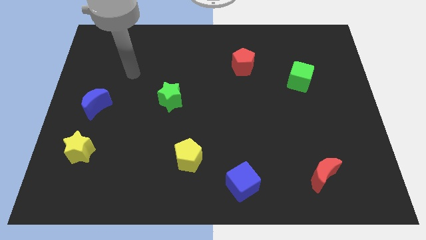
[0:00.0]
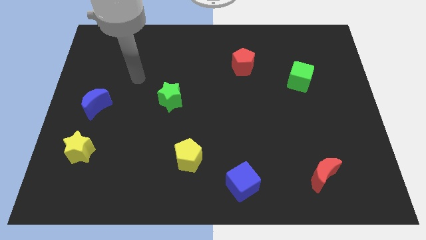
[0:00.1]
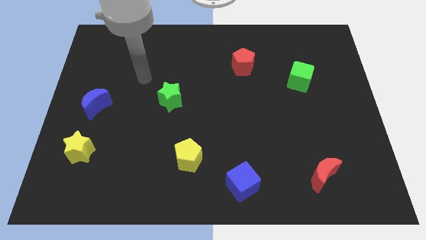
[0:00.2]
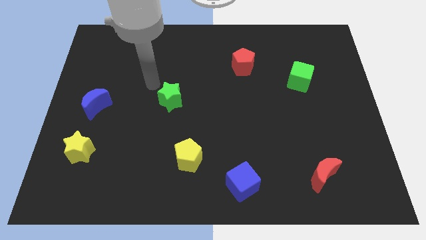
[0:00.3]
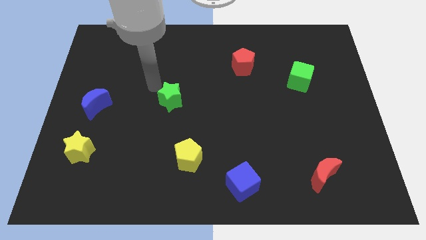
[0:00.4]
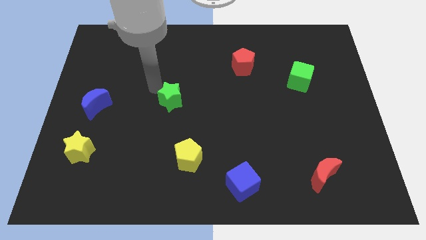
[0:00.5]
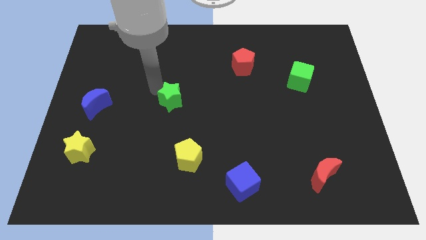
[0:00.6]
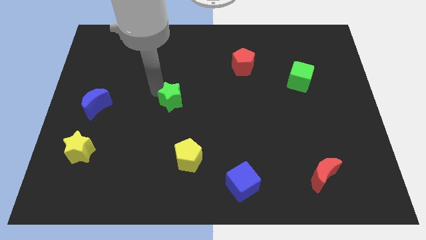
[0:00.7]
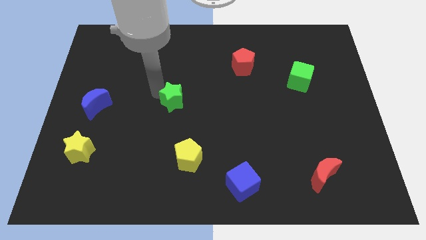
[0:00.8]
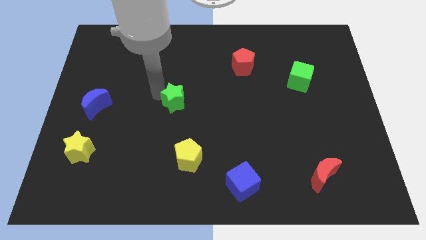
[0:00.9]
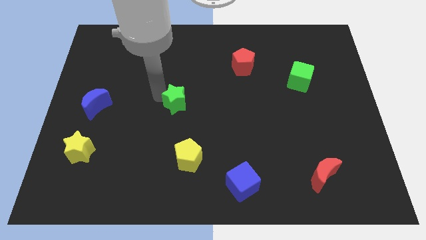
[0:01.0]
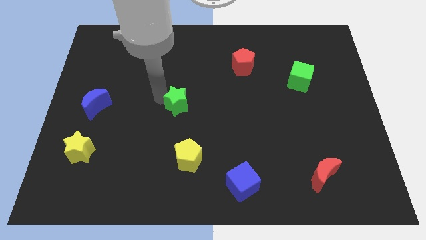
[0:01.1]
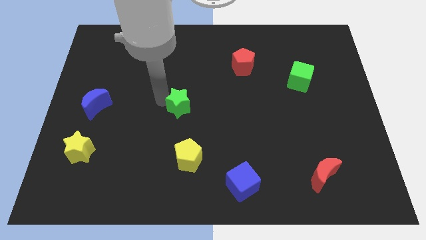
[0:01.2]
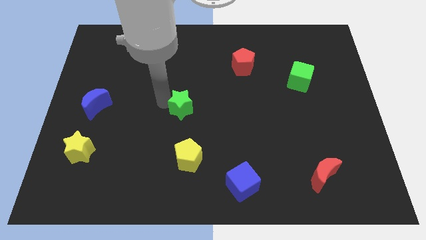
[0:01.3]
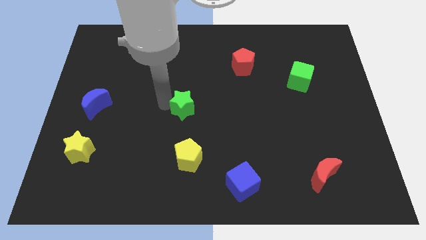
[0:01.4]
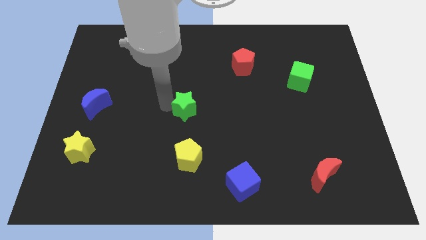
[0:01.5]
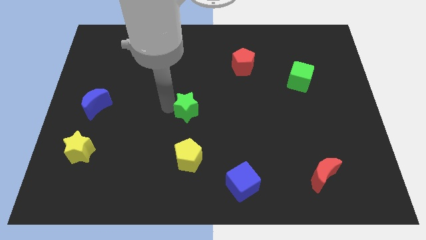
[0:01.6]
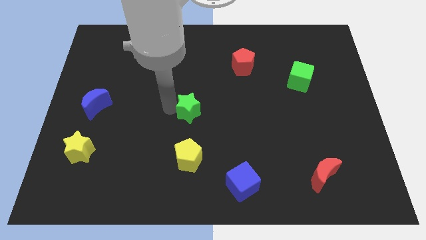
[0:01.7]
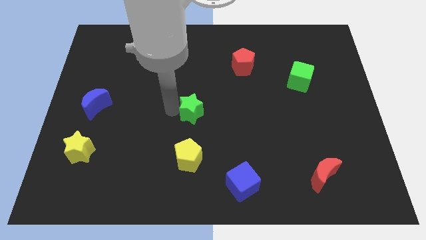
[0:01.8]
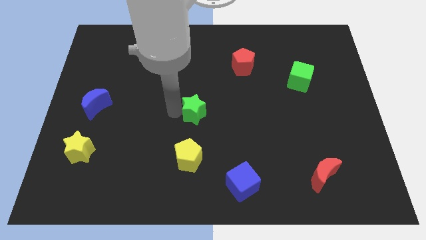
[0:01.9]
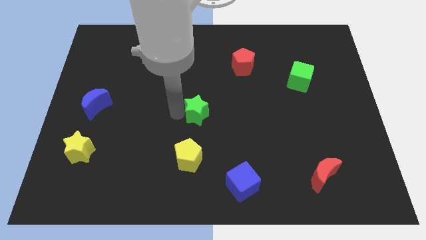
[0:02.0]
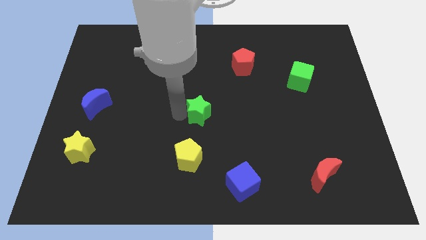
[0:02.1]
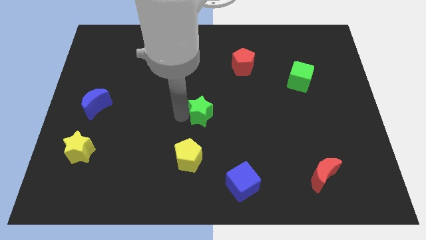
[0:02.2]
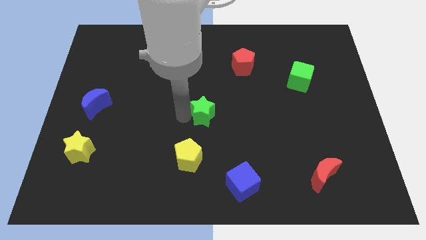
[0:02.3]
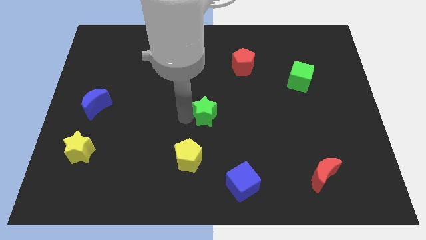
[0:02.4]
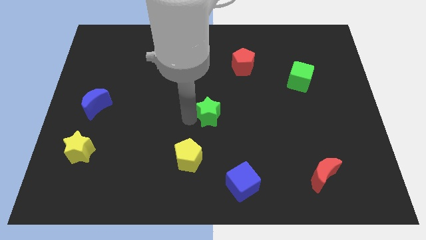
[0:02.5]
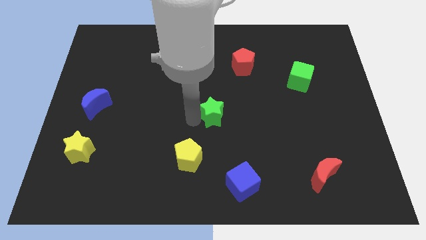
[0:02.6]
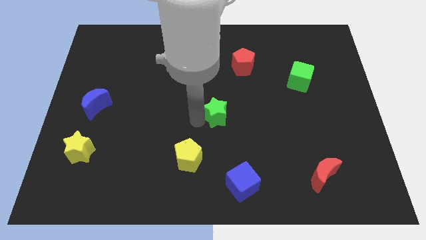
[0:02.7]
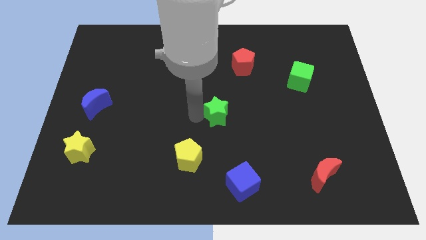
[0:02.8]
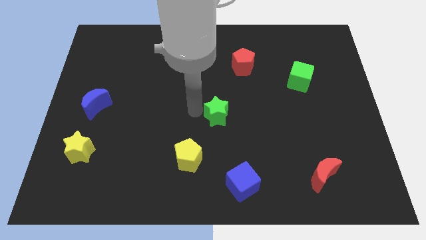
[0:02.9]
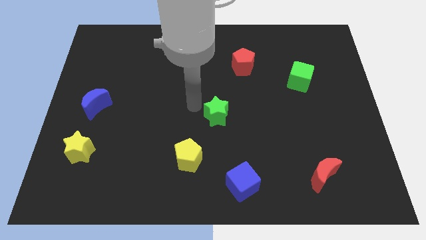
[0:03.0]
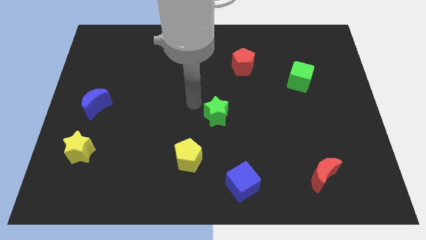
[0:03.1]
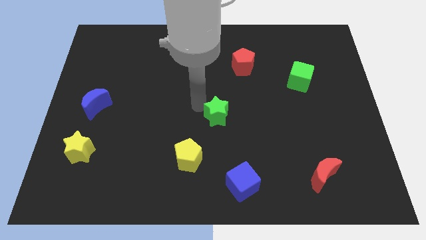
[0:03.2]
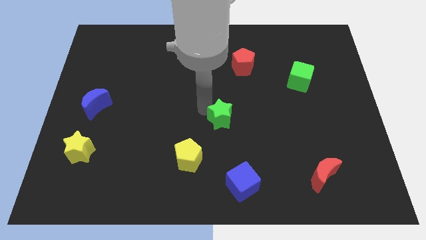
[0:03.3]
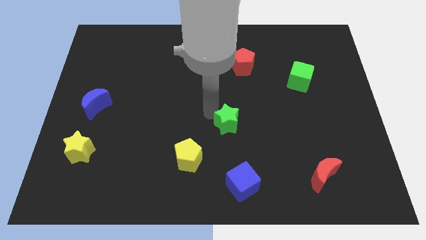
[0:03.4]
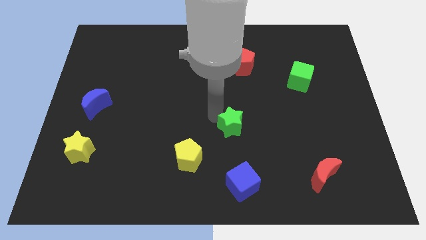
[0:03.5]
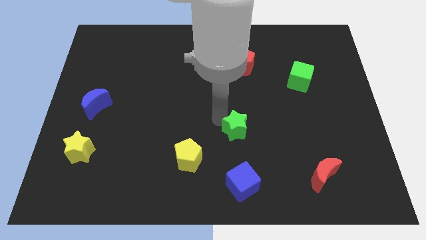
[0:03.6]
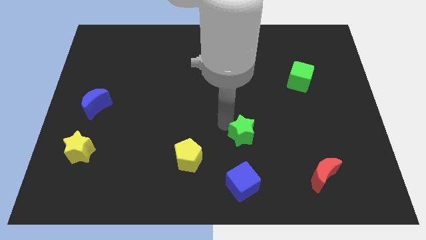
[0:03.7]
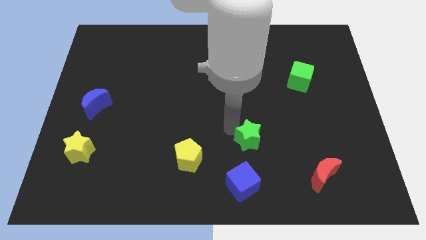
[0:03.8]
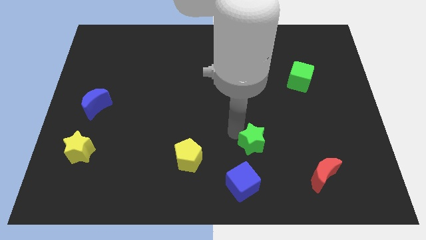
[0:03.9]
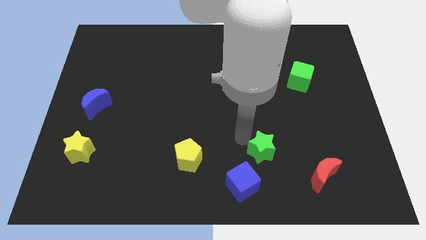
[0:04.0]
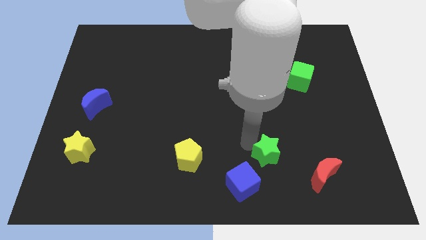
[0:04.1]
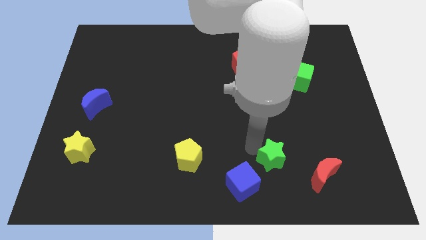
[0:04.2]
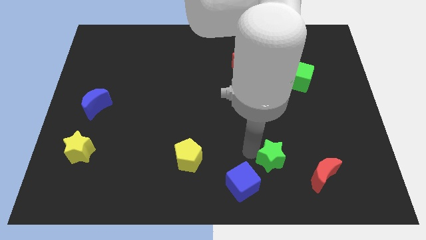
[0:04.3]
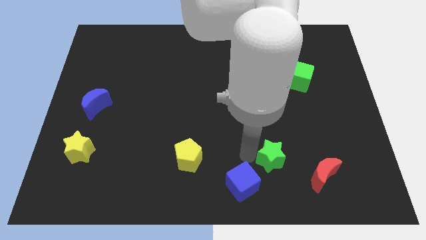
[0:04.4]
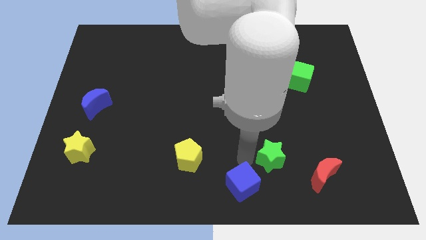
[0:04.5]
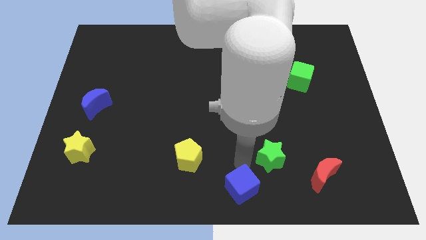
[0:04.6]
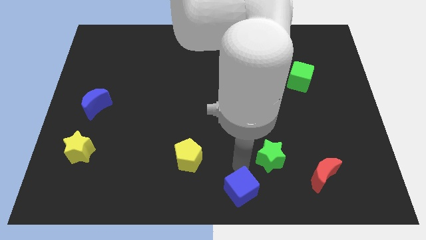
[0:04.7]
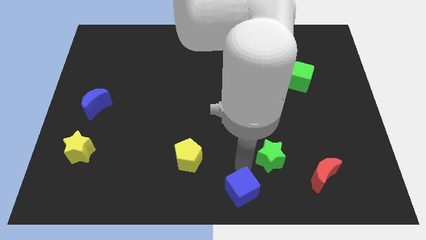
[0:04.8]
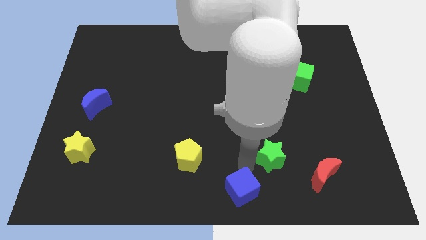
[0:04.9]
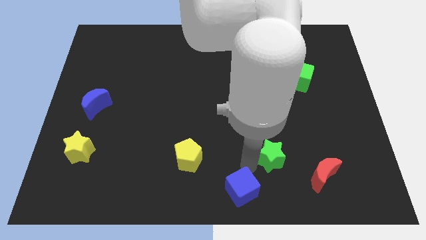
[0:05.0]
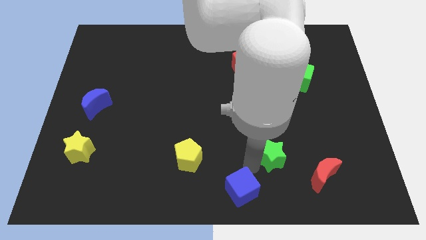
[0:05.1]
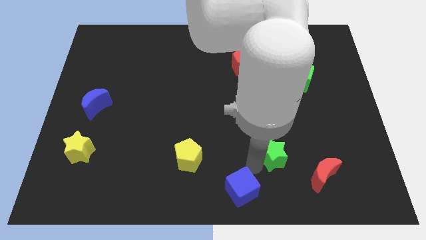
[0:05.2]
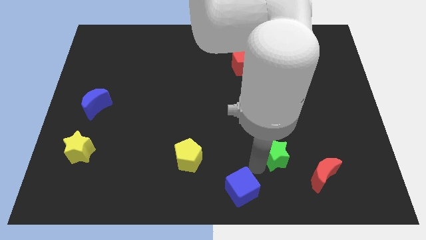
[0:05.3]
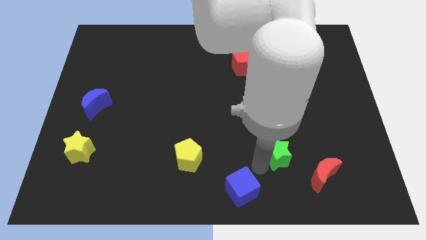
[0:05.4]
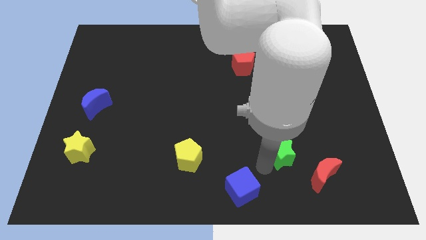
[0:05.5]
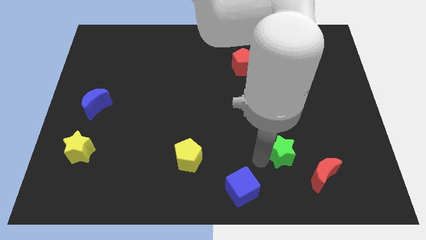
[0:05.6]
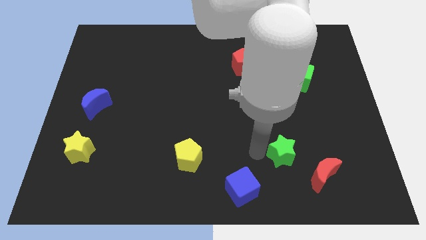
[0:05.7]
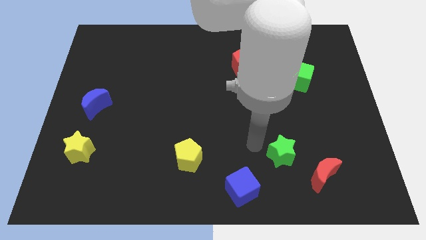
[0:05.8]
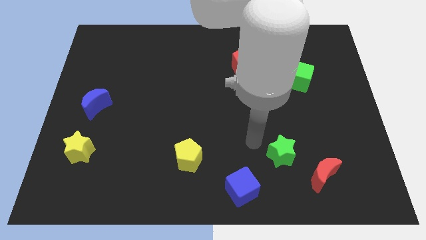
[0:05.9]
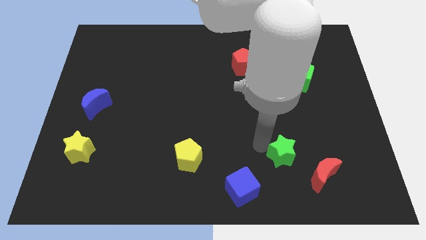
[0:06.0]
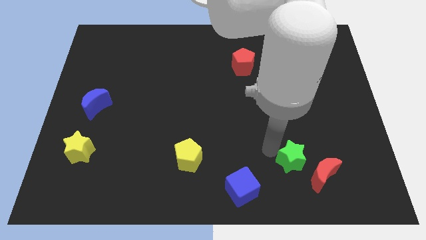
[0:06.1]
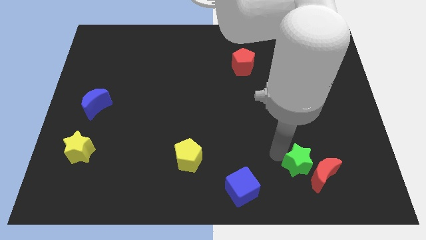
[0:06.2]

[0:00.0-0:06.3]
put the green star to the red moon
